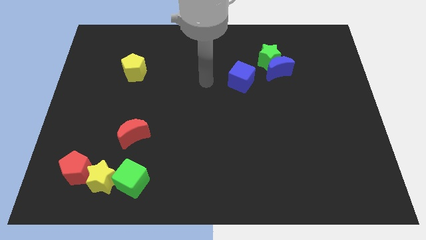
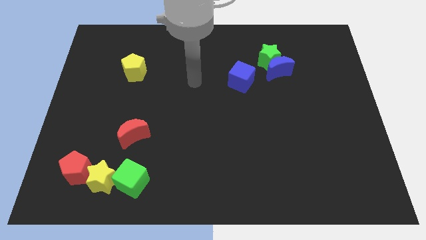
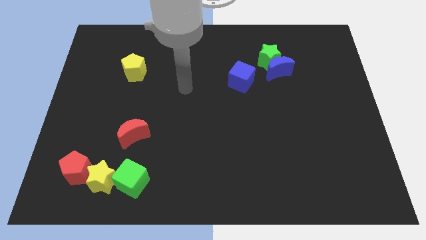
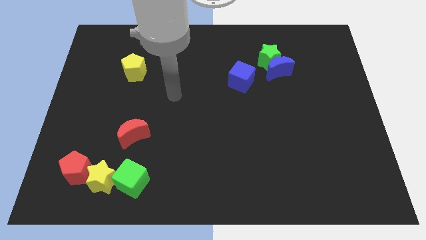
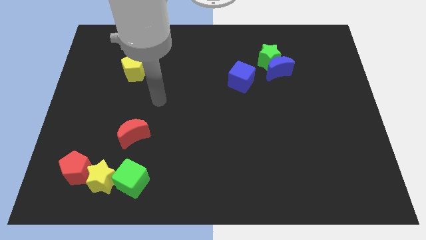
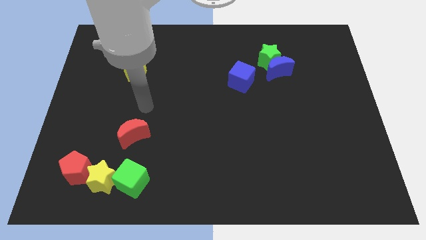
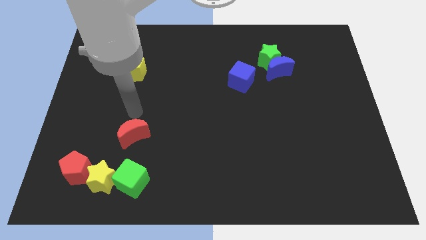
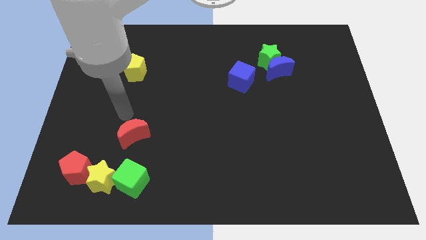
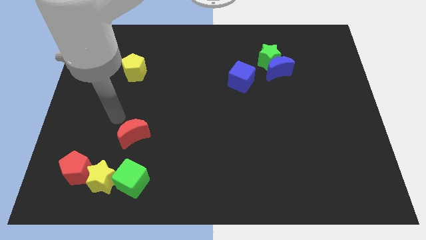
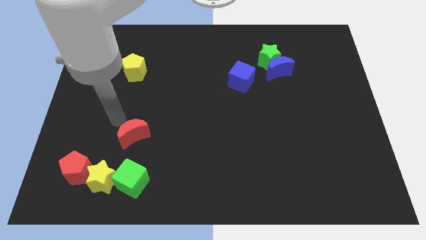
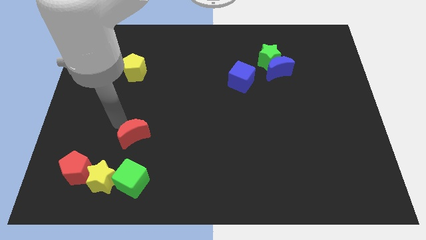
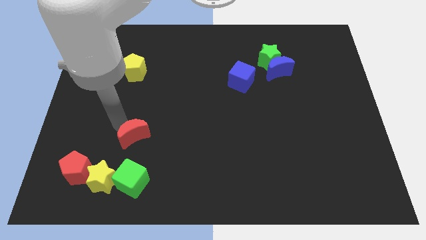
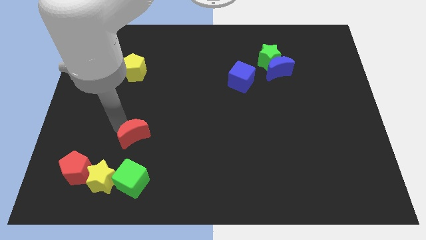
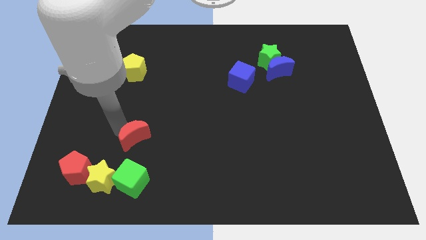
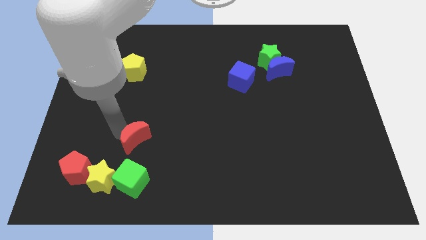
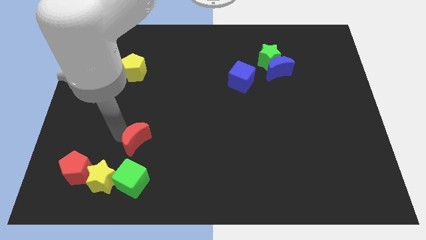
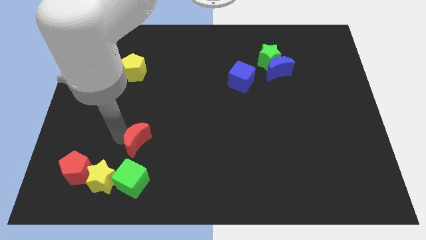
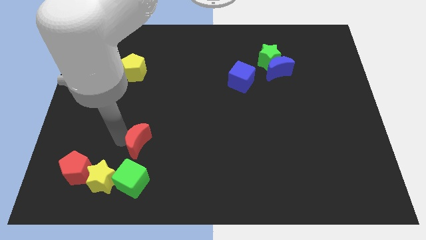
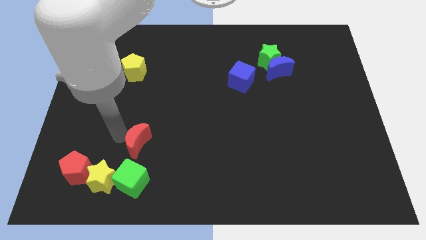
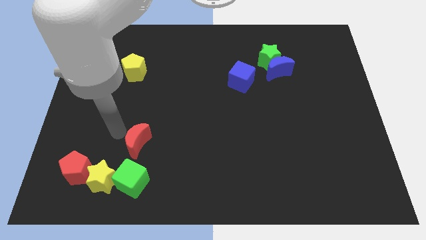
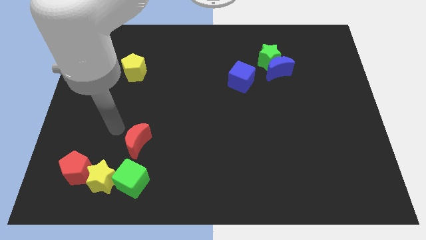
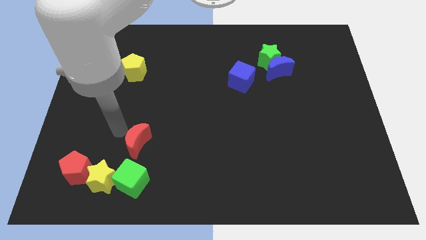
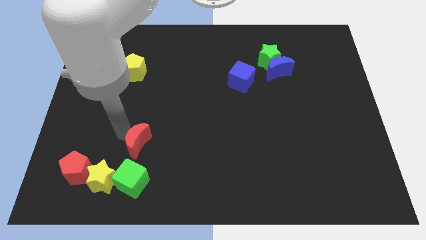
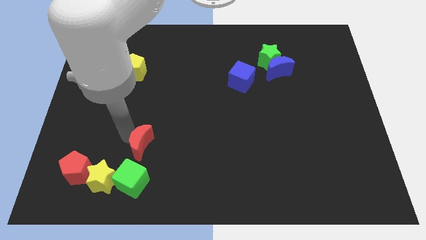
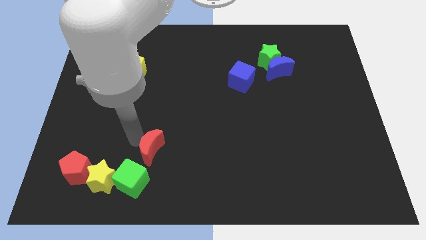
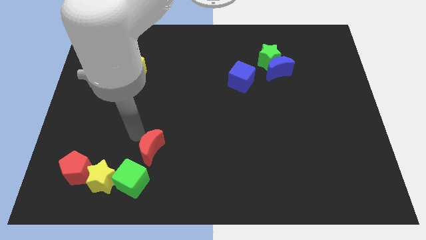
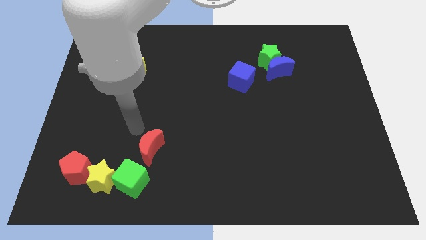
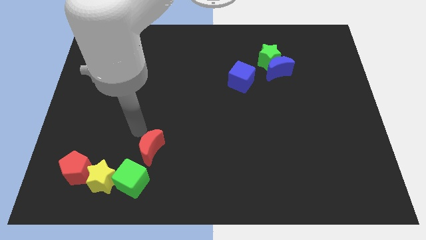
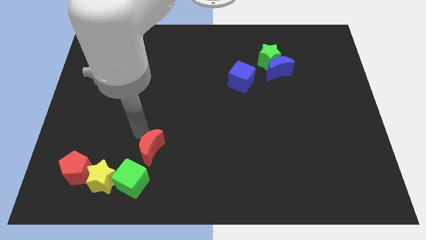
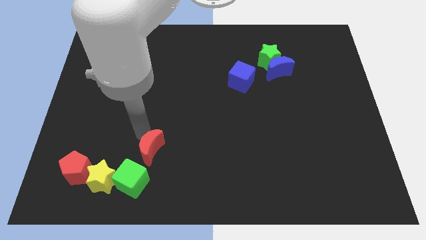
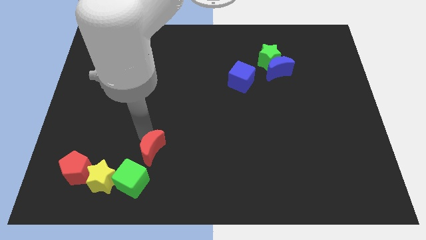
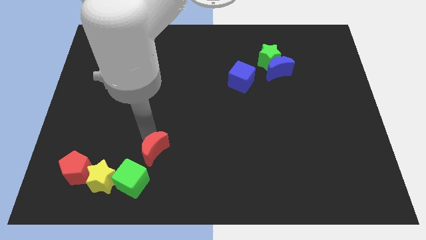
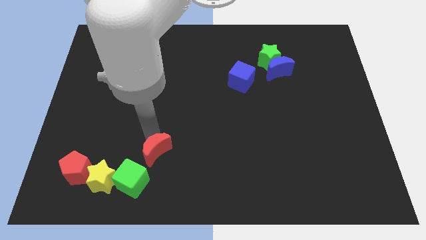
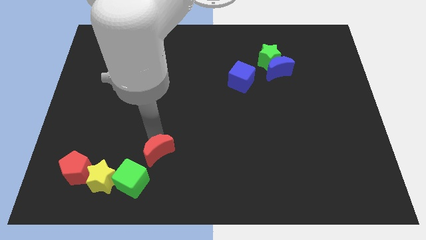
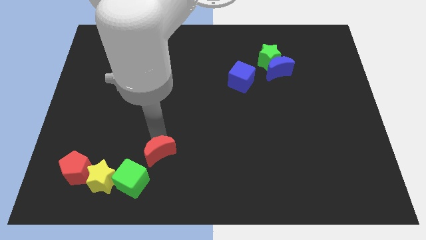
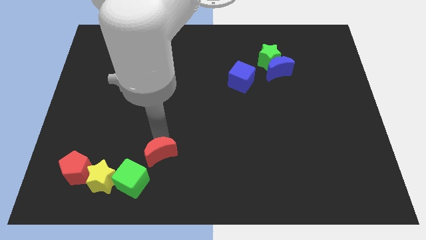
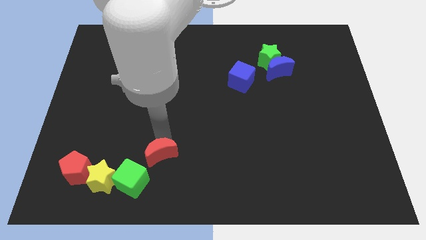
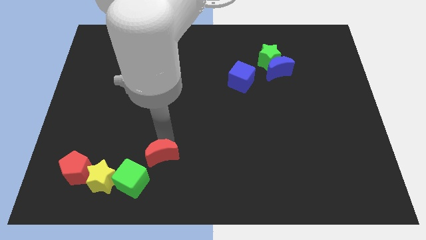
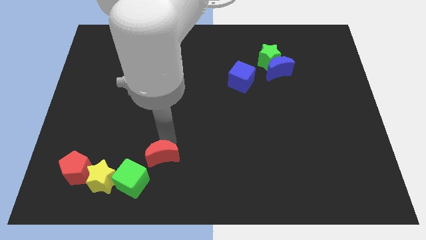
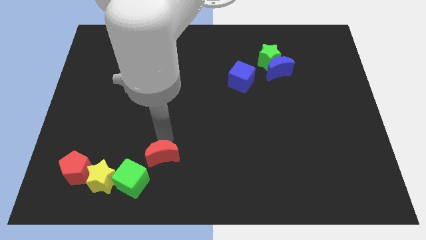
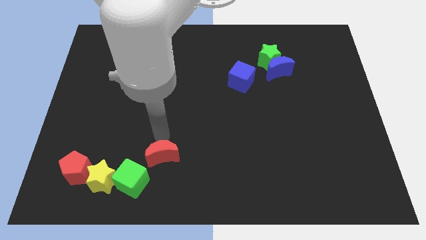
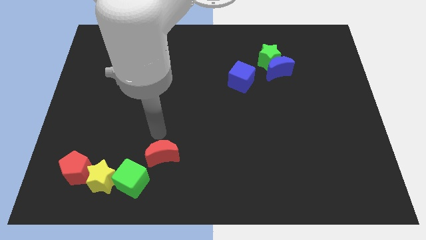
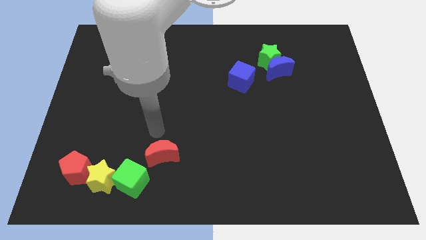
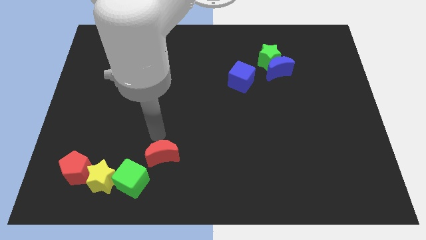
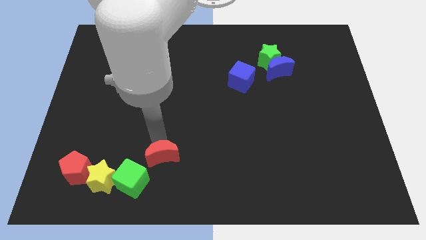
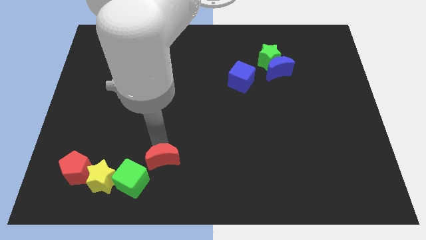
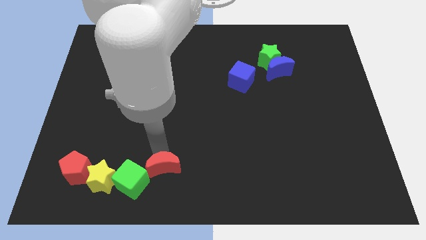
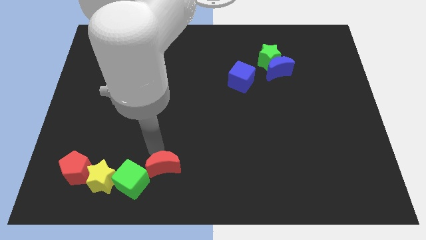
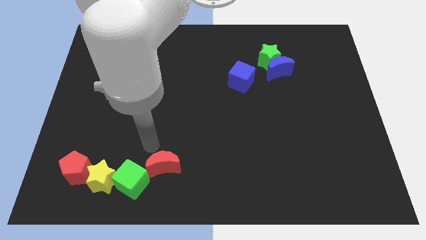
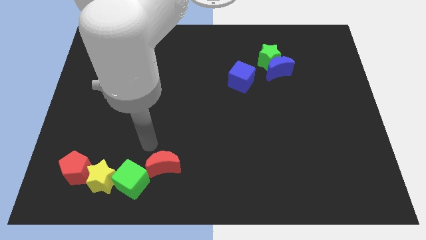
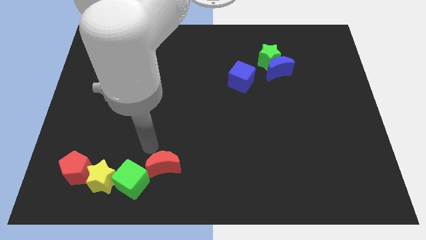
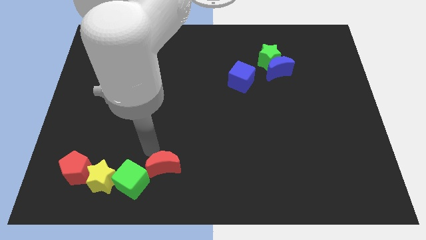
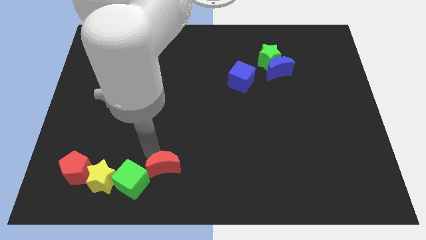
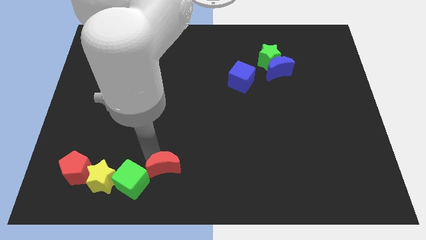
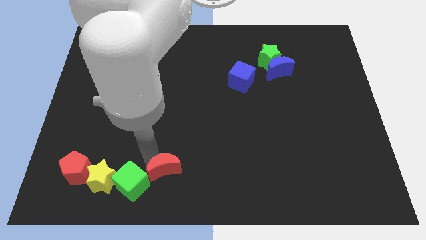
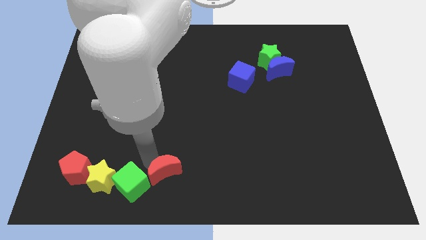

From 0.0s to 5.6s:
push the red moon to the bottom side

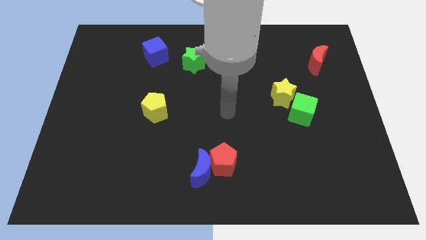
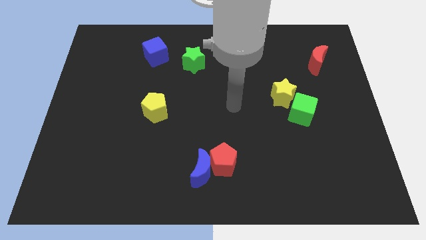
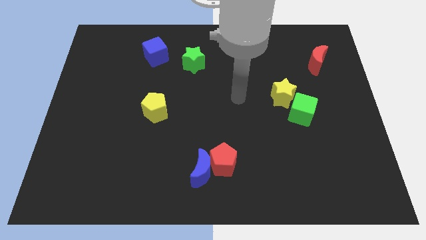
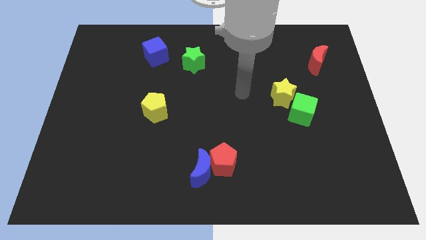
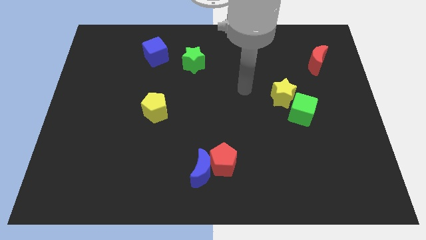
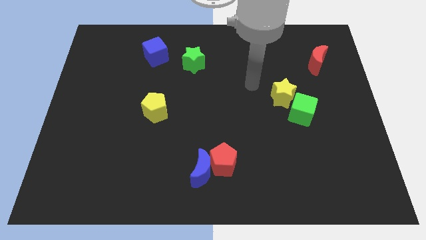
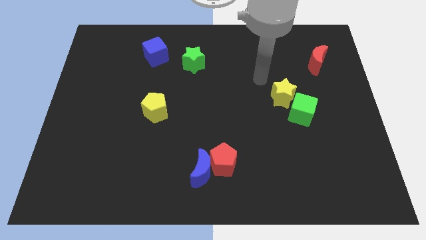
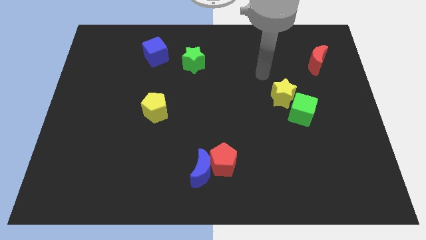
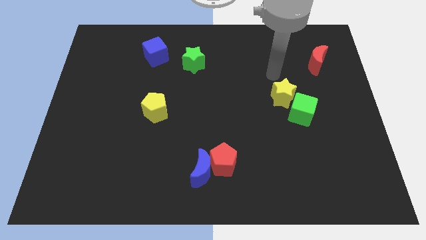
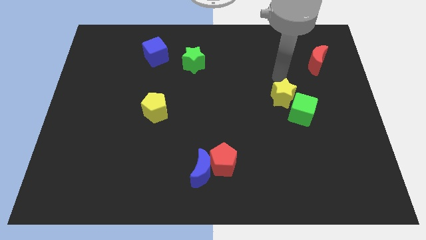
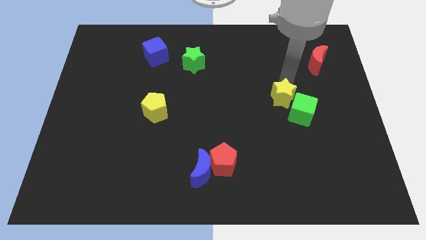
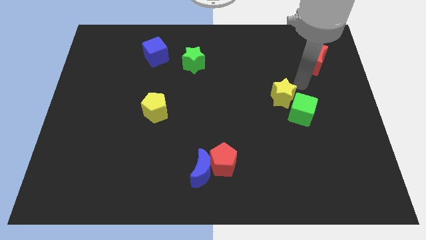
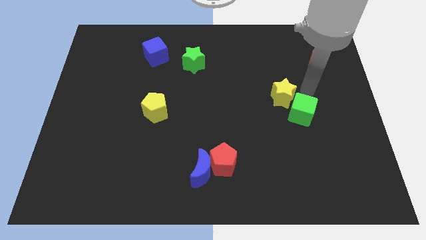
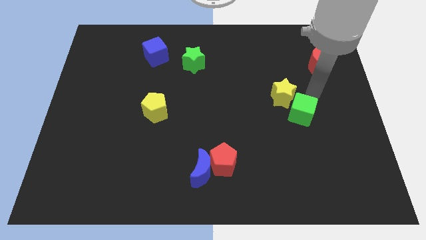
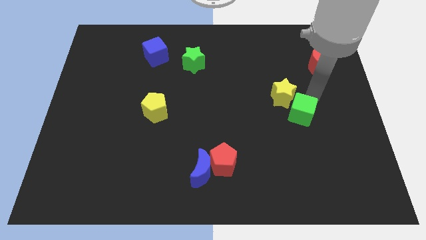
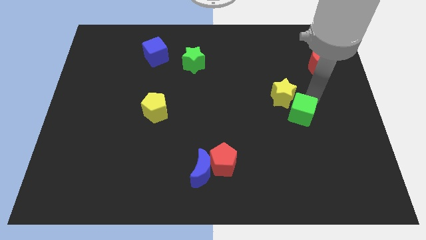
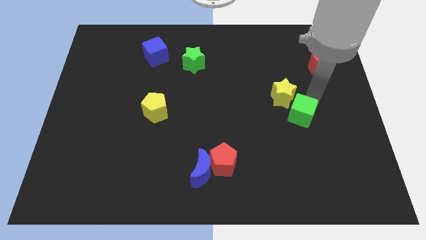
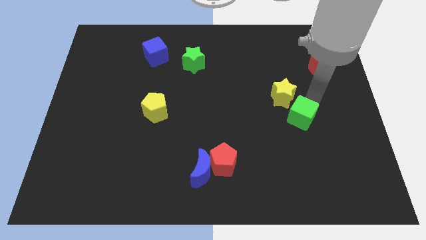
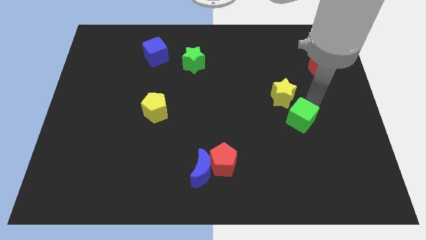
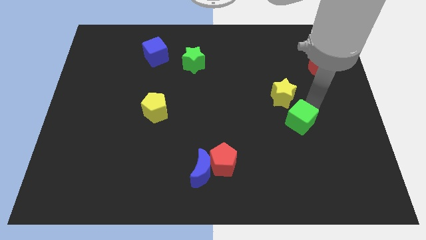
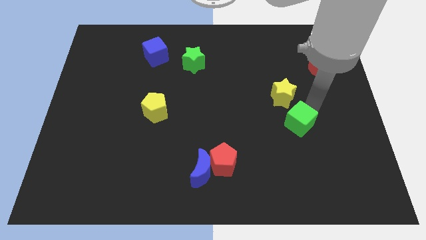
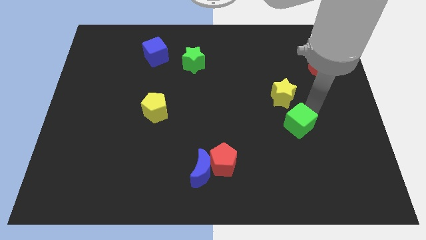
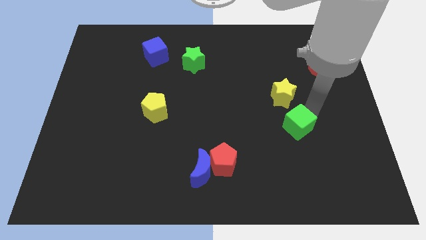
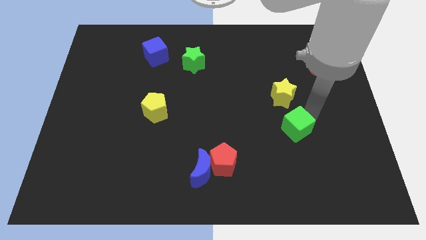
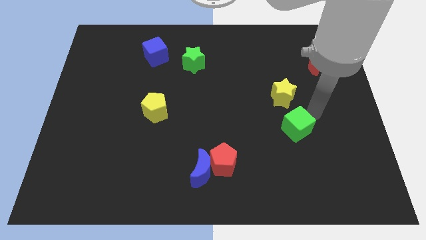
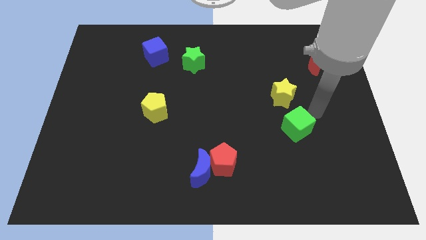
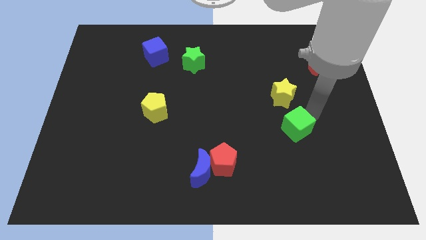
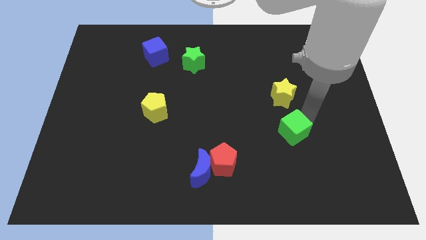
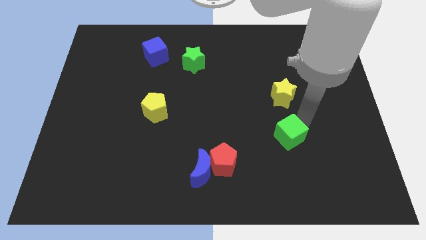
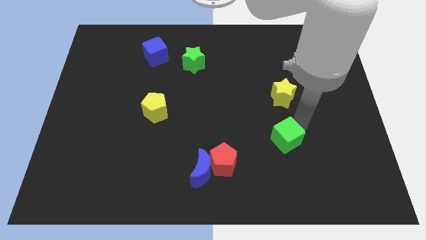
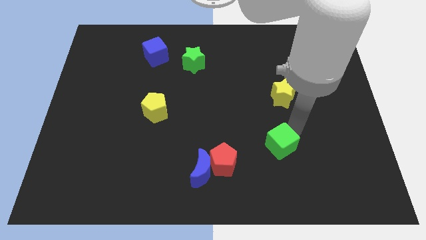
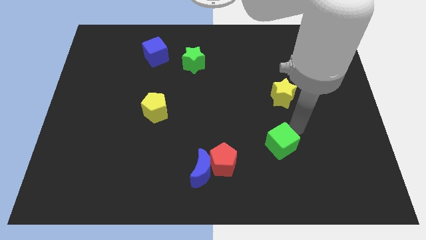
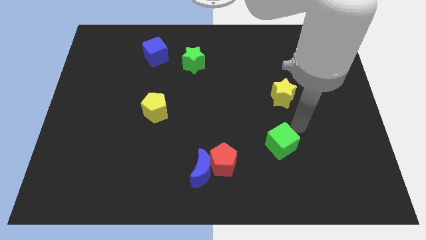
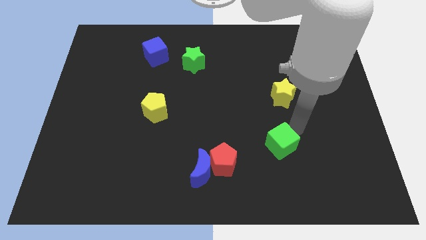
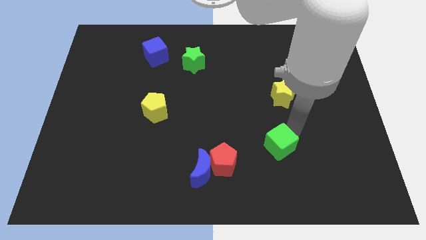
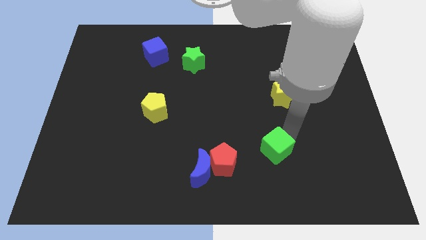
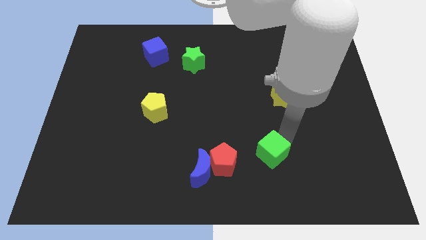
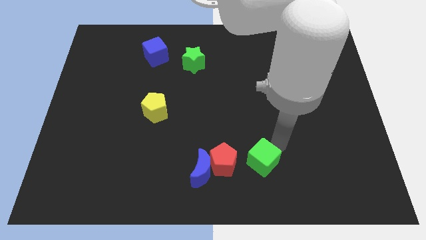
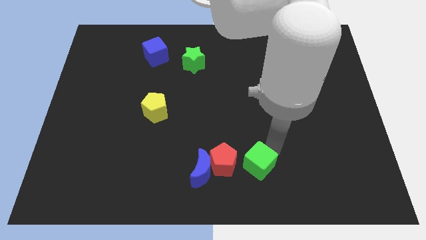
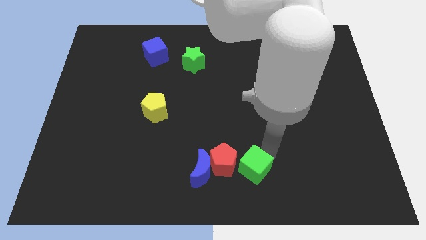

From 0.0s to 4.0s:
slide the green cube to the bottom side
